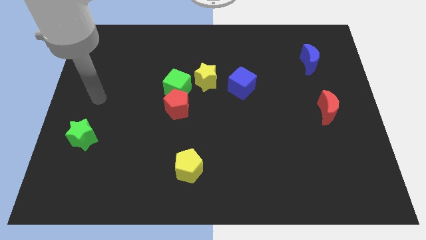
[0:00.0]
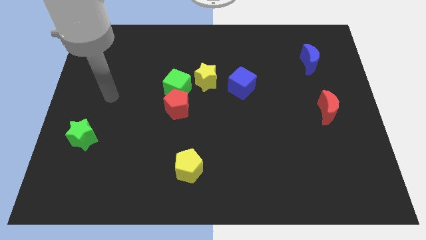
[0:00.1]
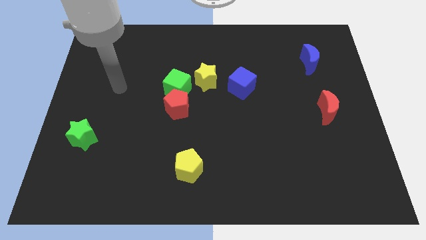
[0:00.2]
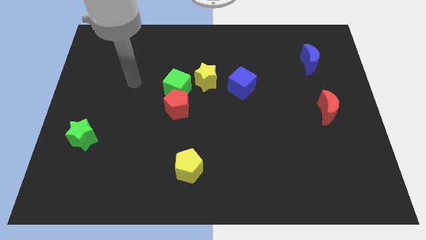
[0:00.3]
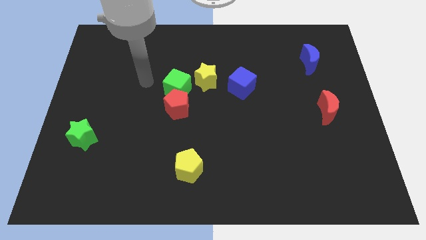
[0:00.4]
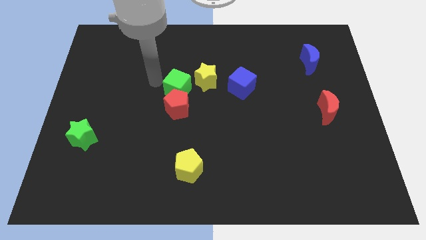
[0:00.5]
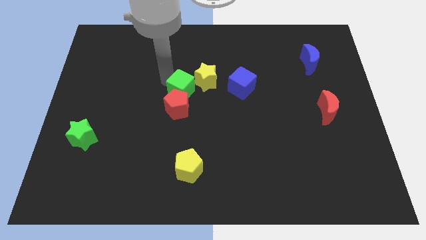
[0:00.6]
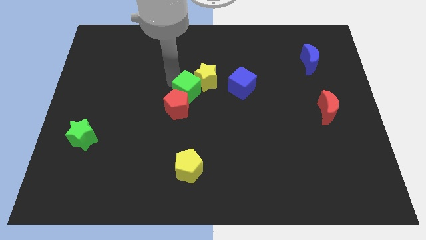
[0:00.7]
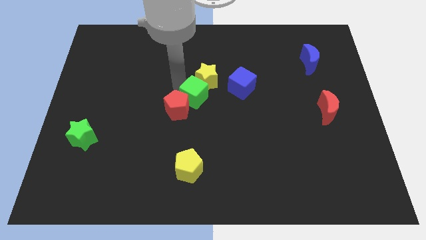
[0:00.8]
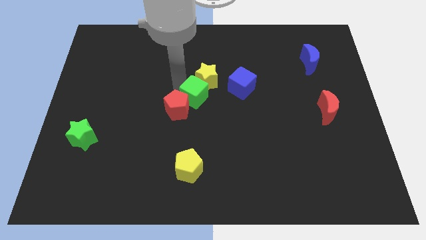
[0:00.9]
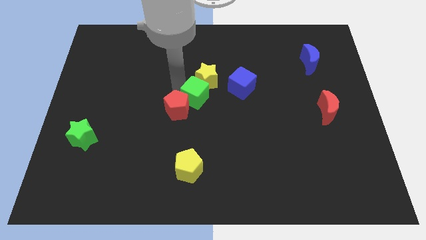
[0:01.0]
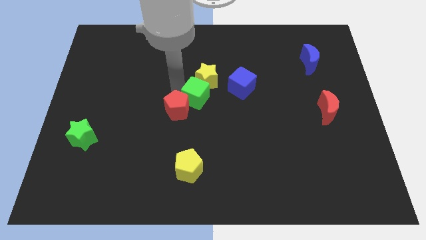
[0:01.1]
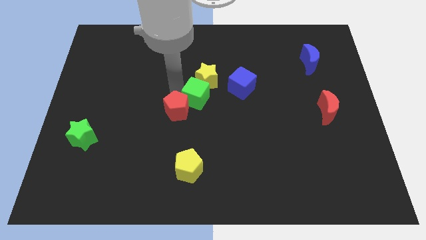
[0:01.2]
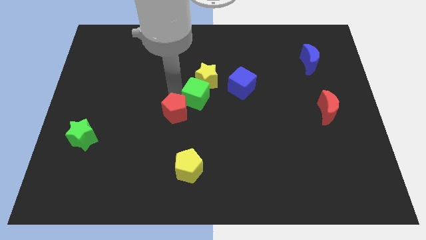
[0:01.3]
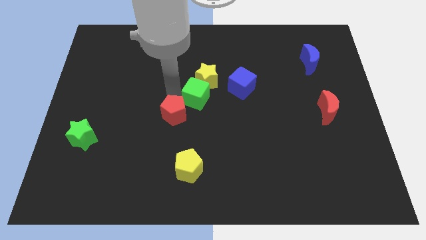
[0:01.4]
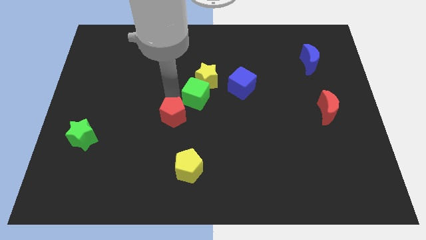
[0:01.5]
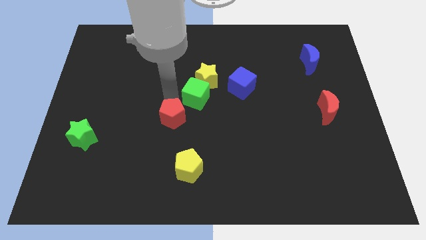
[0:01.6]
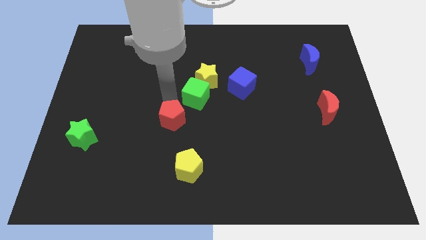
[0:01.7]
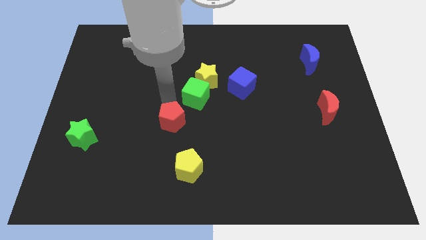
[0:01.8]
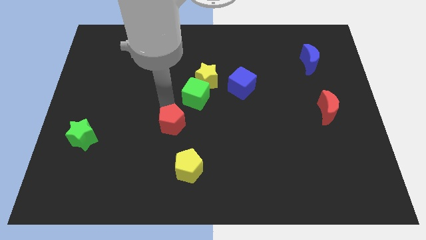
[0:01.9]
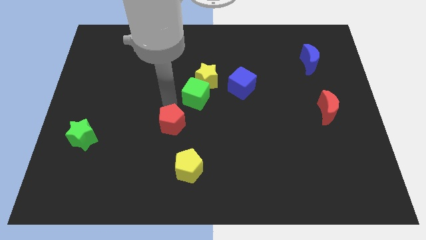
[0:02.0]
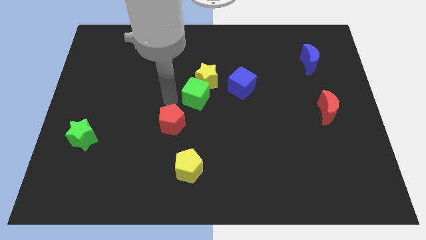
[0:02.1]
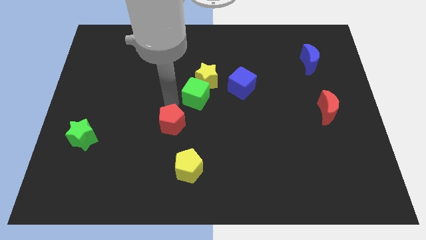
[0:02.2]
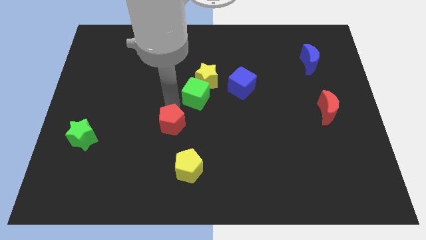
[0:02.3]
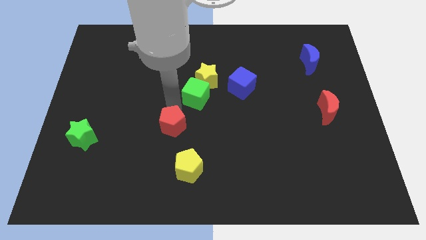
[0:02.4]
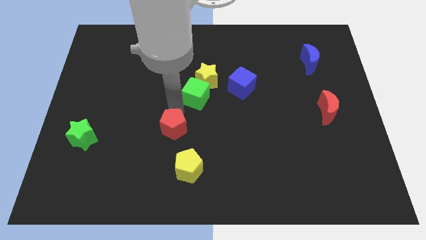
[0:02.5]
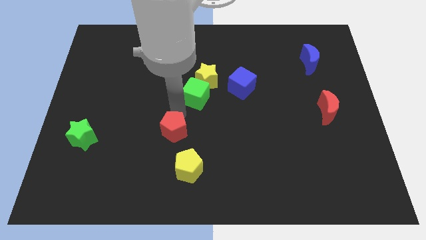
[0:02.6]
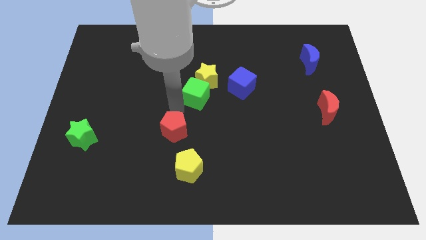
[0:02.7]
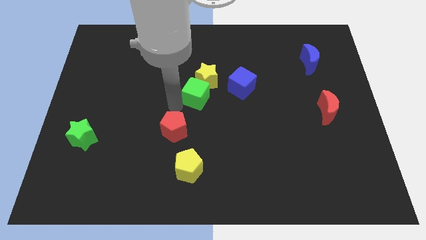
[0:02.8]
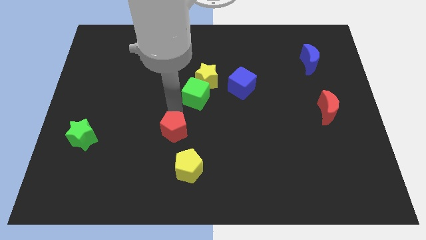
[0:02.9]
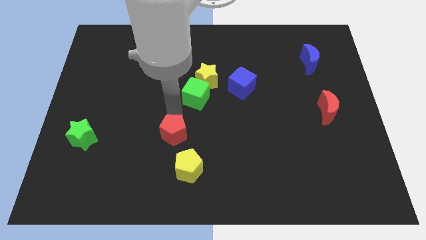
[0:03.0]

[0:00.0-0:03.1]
slightly slide the red pentagon downwards

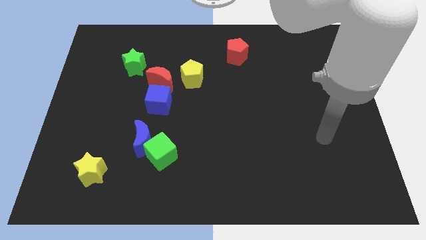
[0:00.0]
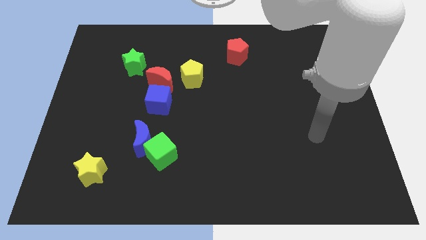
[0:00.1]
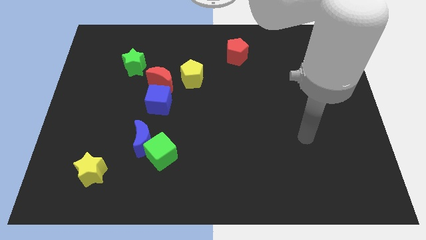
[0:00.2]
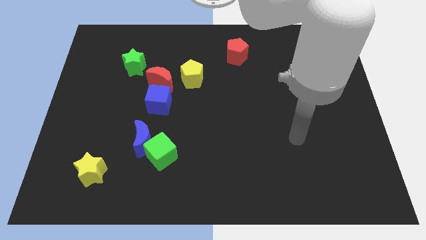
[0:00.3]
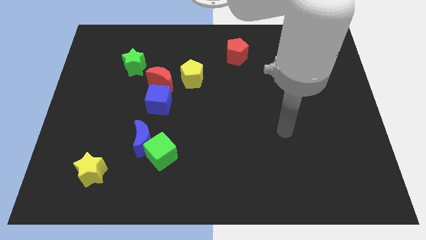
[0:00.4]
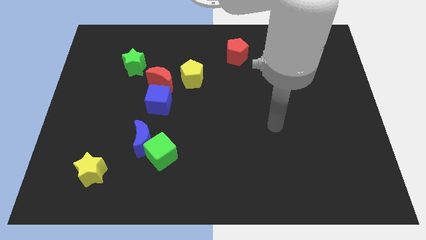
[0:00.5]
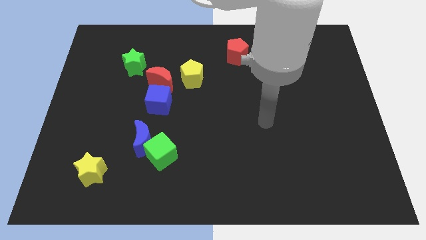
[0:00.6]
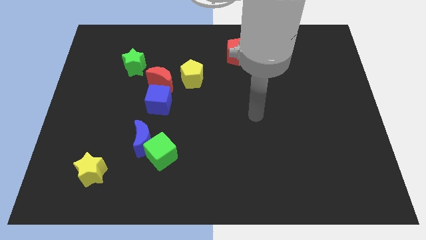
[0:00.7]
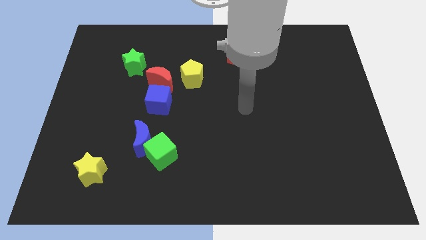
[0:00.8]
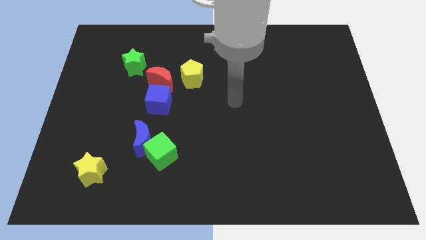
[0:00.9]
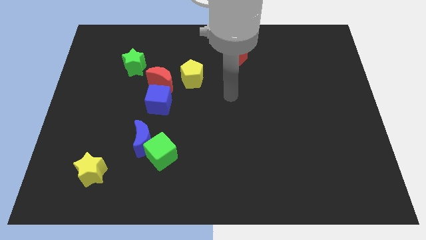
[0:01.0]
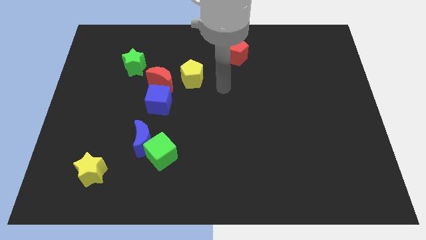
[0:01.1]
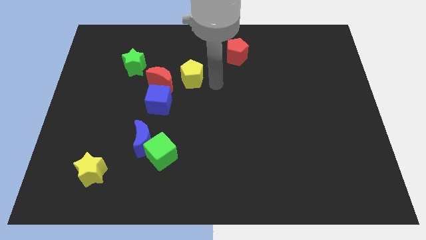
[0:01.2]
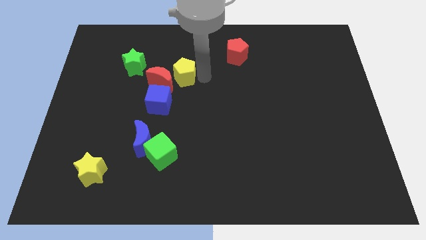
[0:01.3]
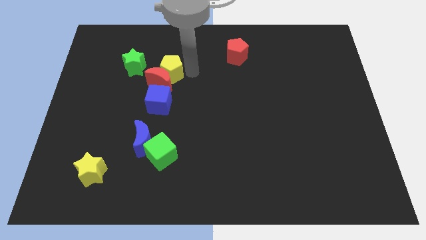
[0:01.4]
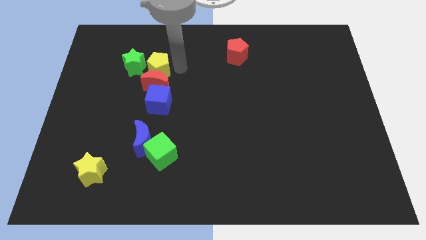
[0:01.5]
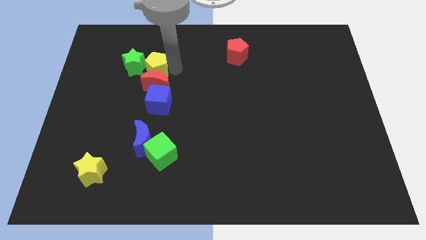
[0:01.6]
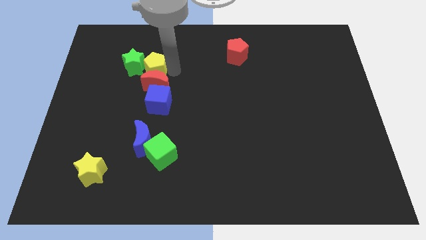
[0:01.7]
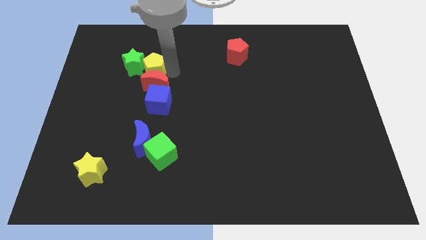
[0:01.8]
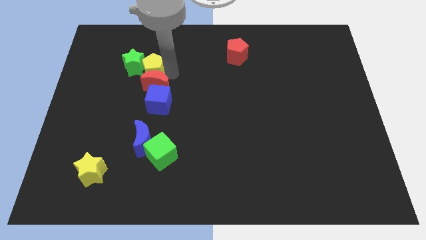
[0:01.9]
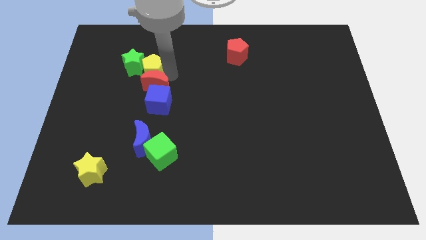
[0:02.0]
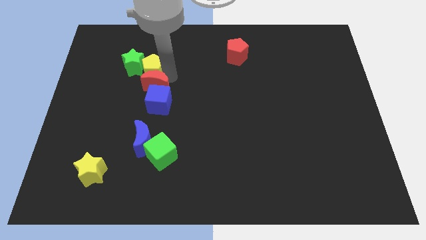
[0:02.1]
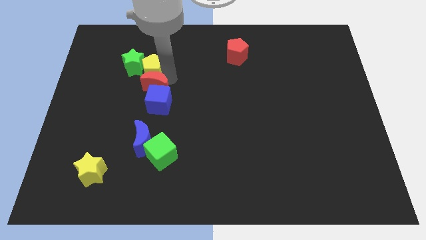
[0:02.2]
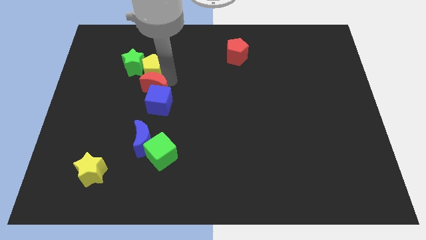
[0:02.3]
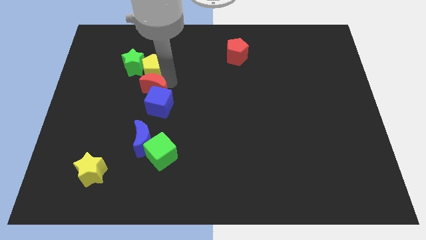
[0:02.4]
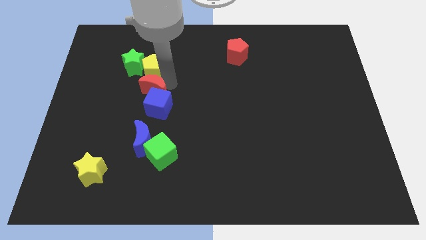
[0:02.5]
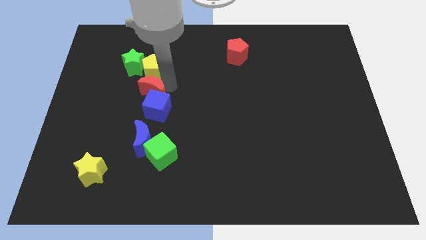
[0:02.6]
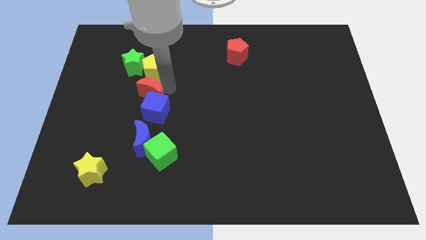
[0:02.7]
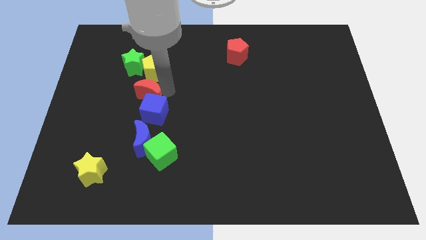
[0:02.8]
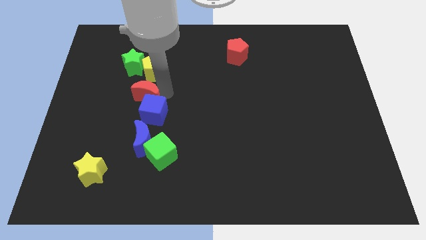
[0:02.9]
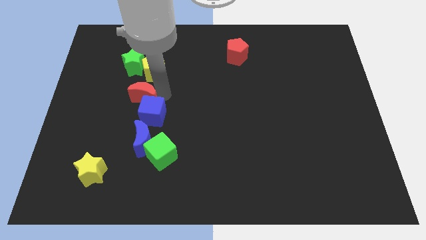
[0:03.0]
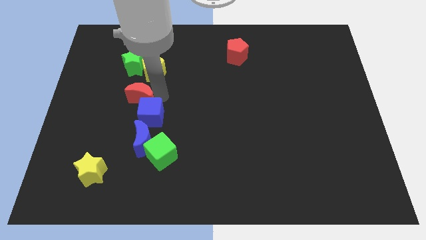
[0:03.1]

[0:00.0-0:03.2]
slightly slide the red moon downwards and then to the left

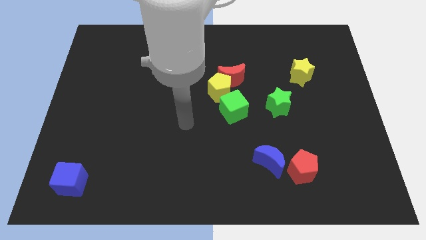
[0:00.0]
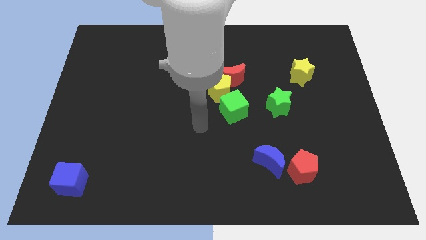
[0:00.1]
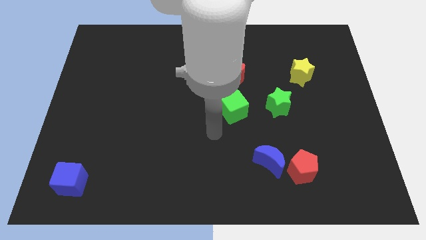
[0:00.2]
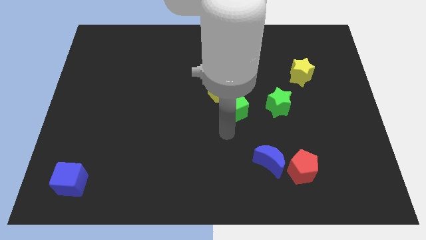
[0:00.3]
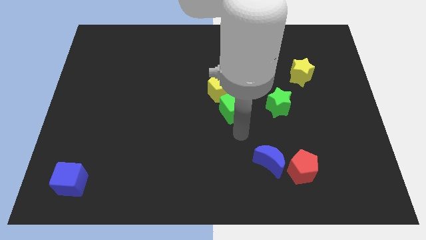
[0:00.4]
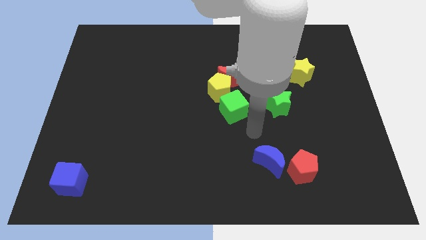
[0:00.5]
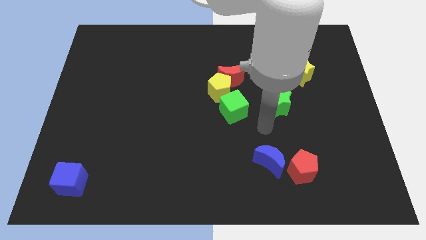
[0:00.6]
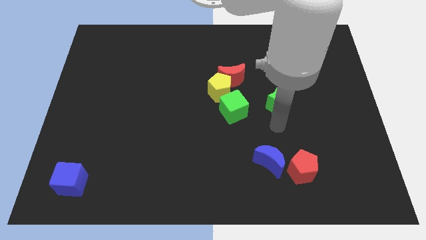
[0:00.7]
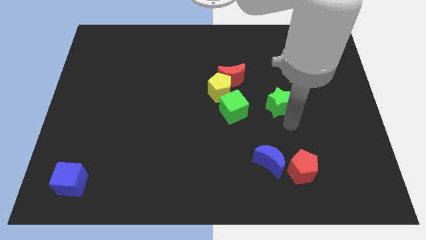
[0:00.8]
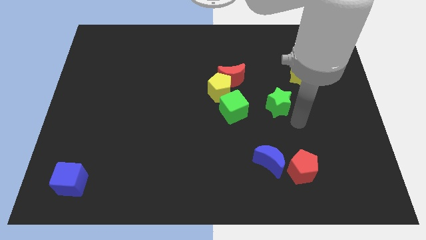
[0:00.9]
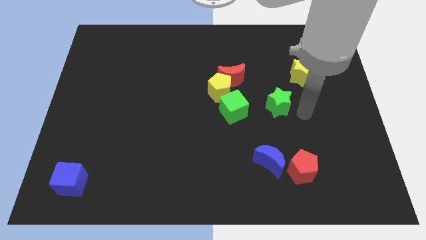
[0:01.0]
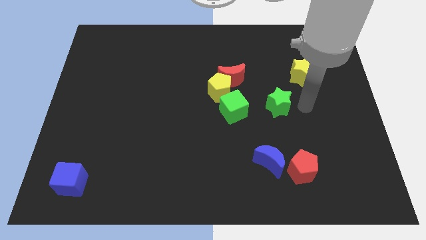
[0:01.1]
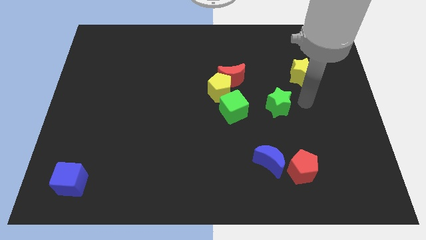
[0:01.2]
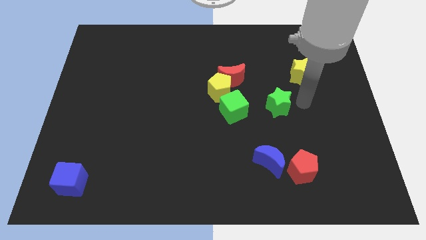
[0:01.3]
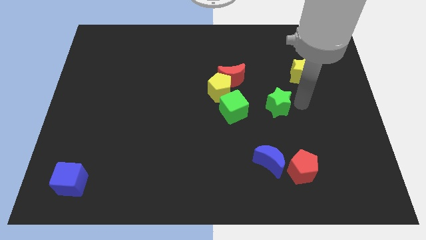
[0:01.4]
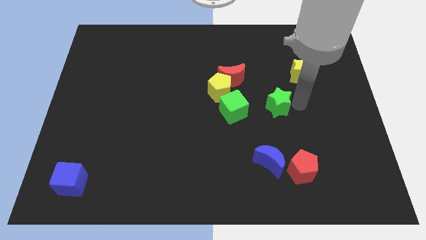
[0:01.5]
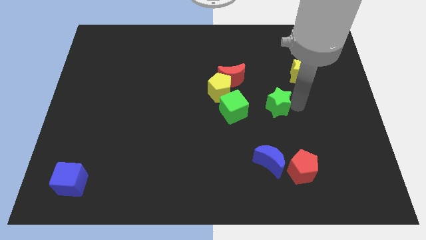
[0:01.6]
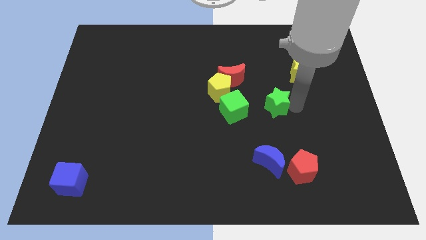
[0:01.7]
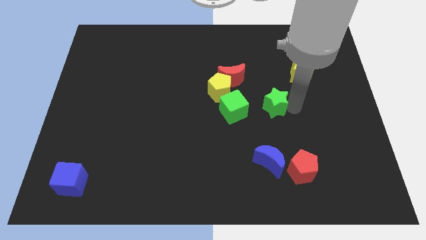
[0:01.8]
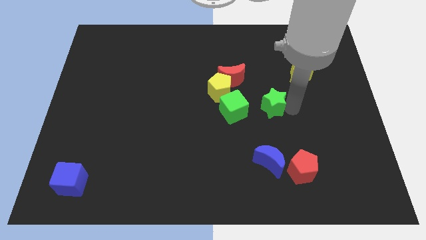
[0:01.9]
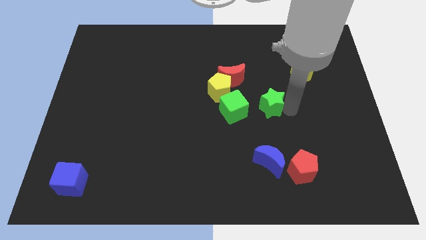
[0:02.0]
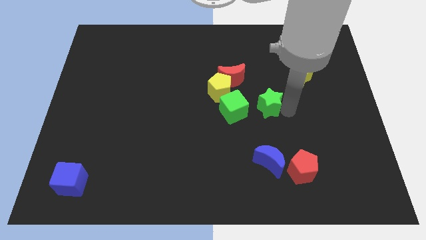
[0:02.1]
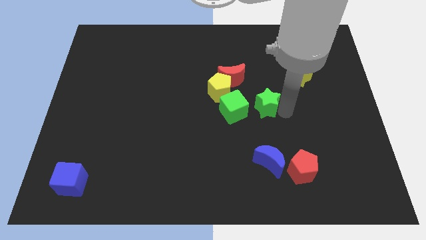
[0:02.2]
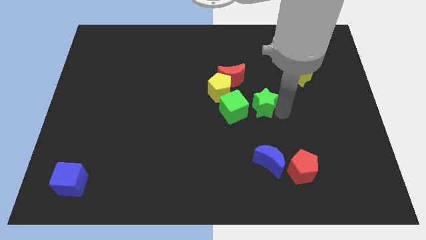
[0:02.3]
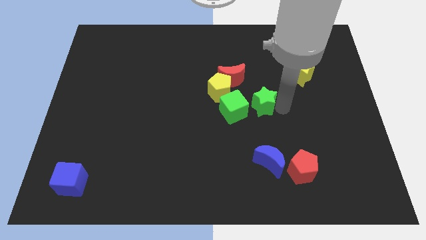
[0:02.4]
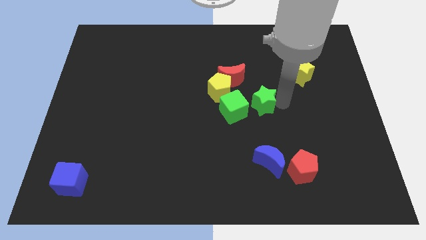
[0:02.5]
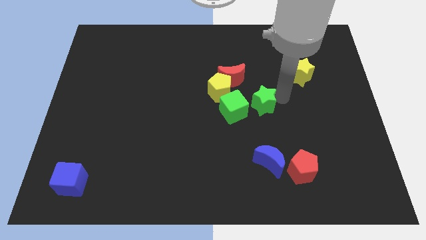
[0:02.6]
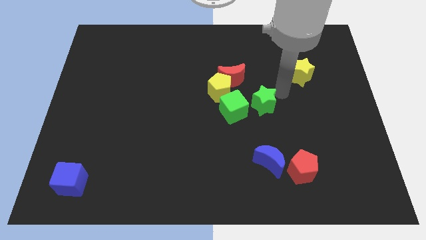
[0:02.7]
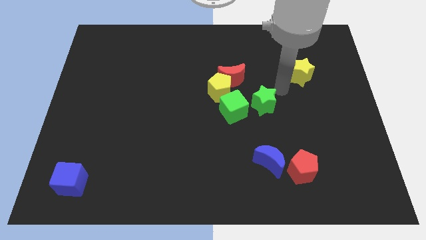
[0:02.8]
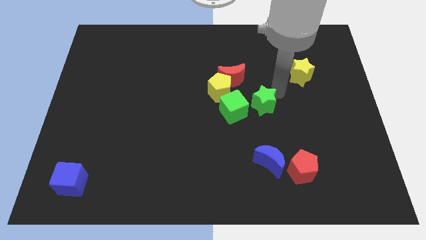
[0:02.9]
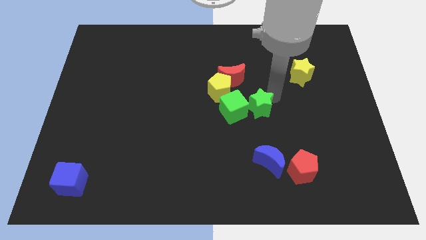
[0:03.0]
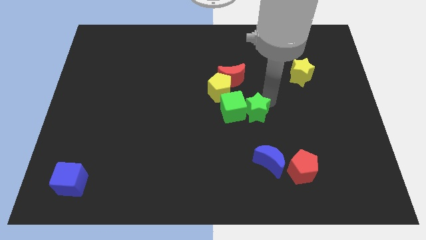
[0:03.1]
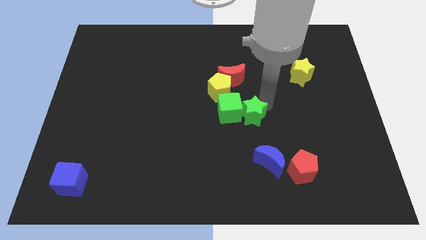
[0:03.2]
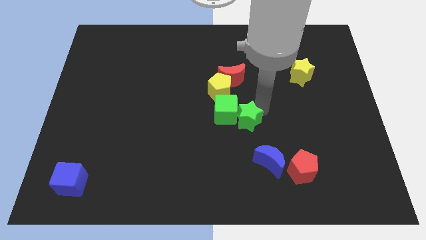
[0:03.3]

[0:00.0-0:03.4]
slide the green star to the left slightly
